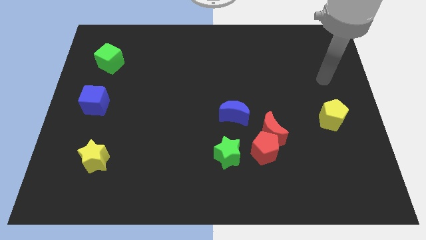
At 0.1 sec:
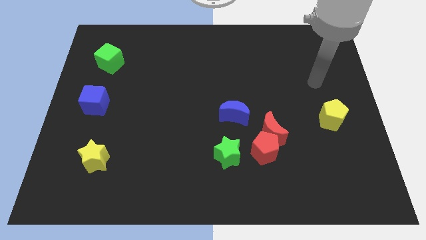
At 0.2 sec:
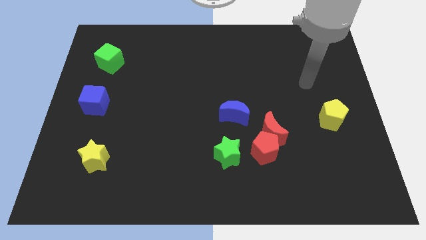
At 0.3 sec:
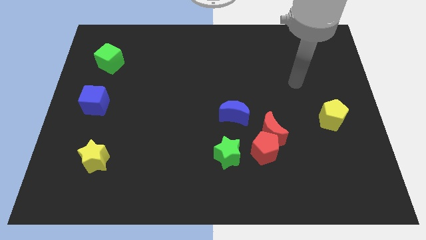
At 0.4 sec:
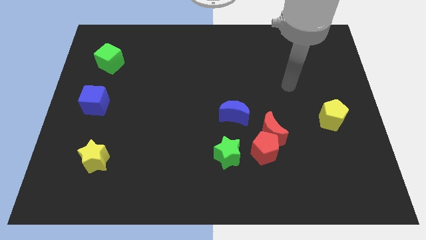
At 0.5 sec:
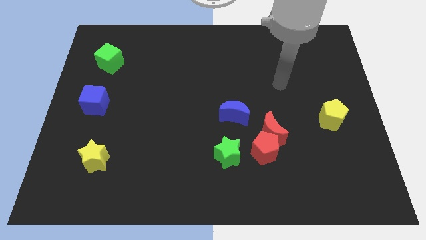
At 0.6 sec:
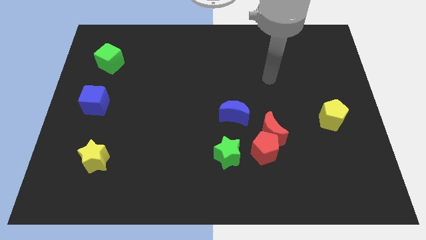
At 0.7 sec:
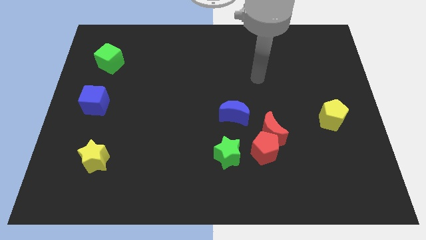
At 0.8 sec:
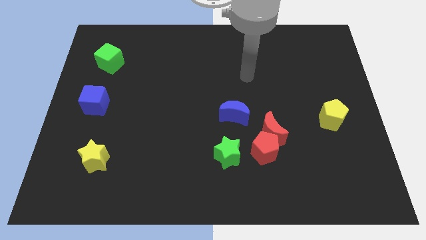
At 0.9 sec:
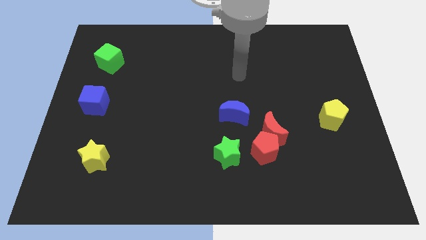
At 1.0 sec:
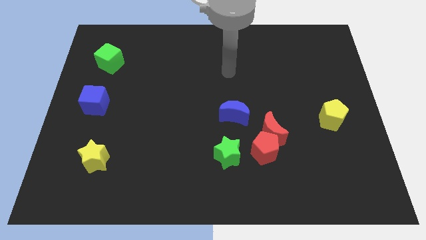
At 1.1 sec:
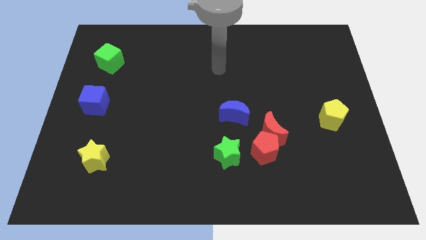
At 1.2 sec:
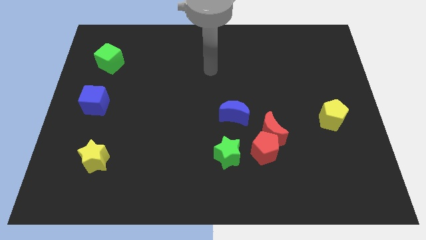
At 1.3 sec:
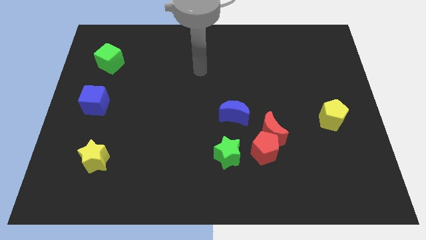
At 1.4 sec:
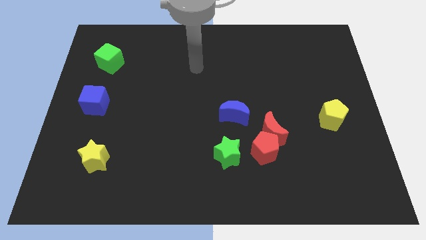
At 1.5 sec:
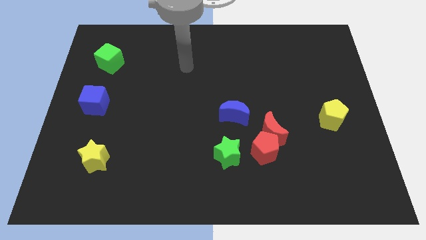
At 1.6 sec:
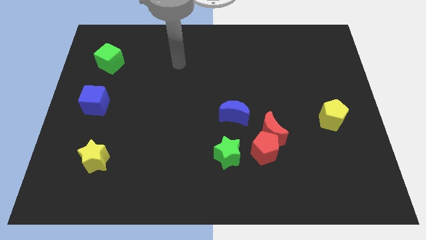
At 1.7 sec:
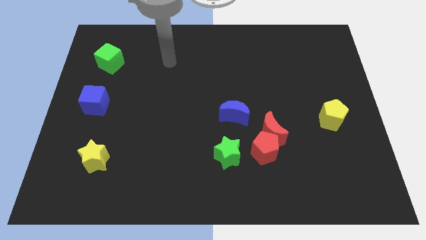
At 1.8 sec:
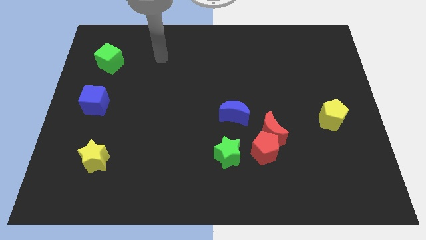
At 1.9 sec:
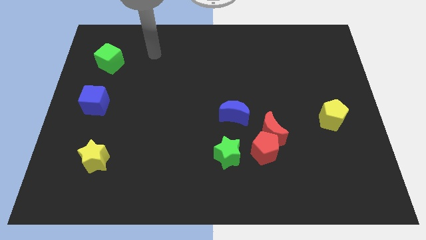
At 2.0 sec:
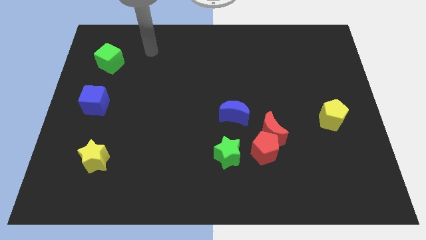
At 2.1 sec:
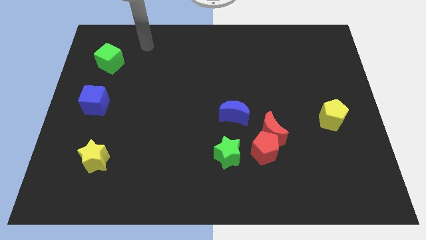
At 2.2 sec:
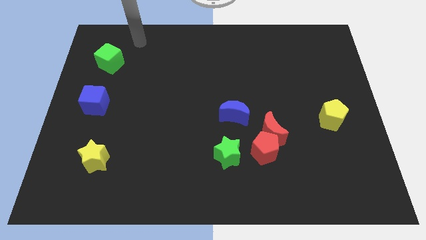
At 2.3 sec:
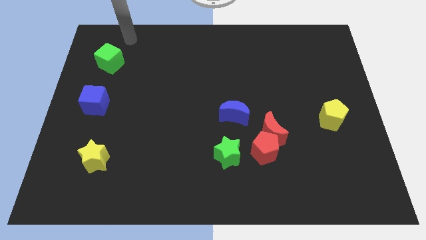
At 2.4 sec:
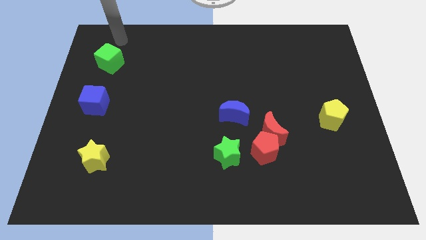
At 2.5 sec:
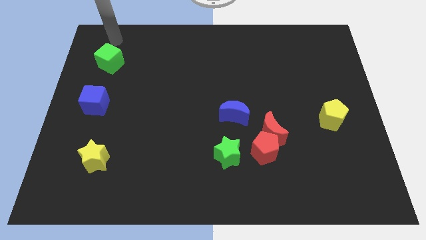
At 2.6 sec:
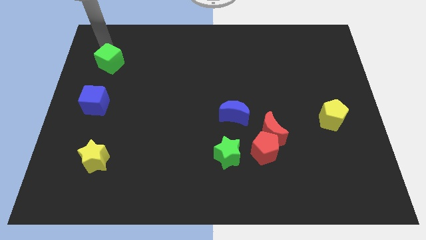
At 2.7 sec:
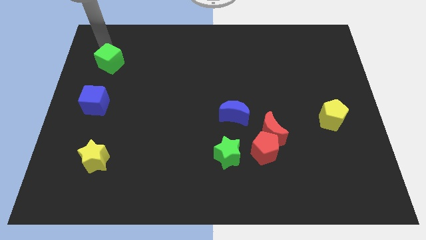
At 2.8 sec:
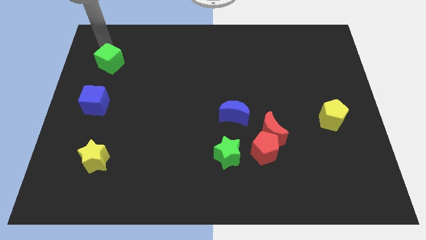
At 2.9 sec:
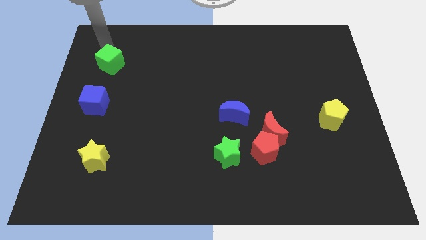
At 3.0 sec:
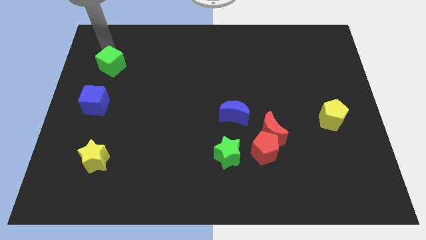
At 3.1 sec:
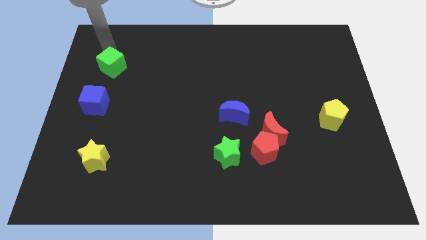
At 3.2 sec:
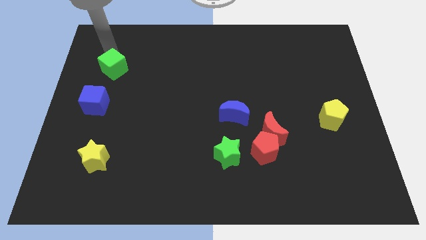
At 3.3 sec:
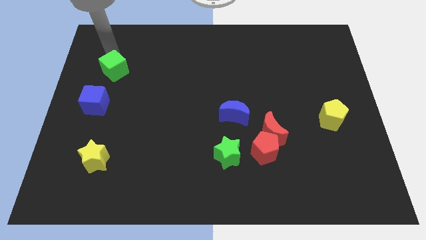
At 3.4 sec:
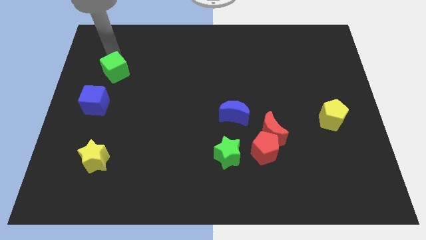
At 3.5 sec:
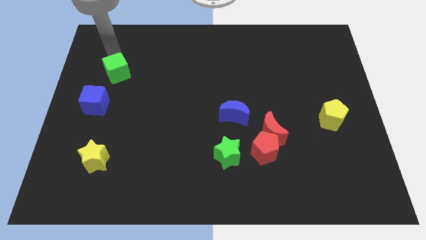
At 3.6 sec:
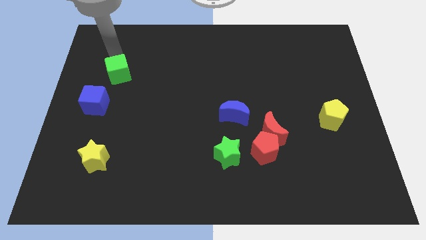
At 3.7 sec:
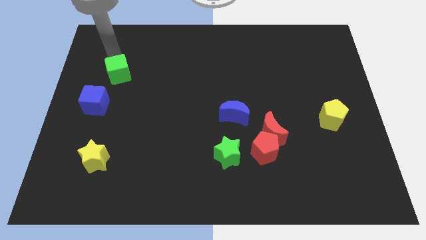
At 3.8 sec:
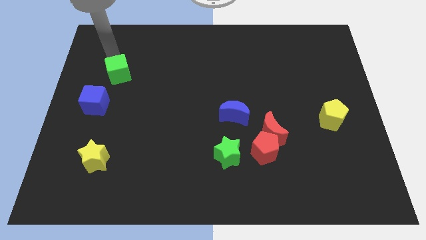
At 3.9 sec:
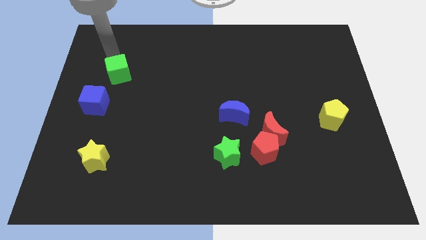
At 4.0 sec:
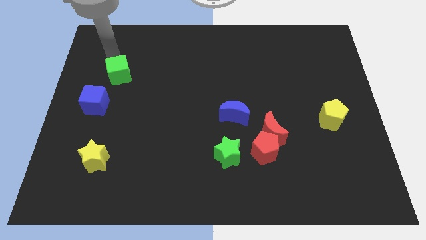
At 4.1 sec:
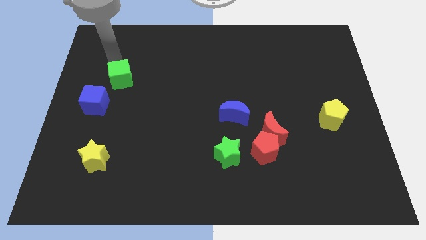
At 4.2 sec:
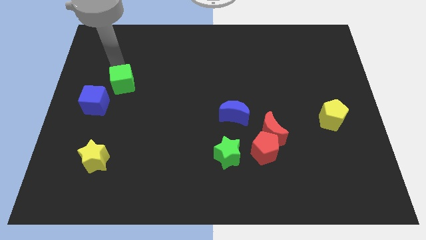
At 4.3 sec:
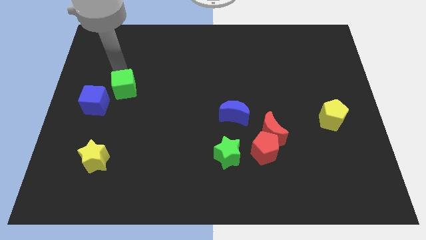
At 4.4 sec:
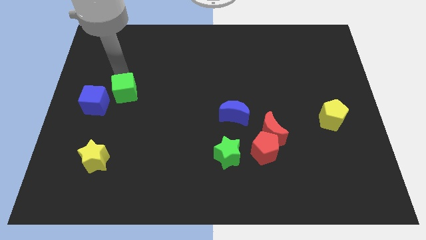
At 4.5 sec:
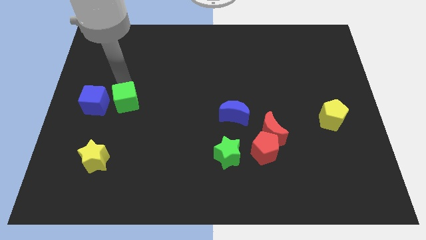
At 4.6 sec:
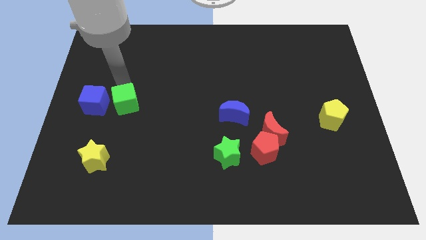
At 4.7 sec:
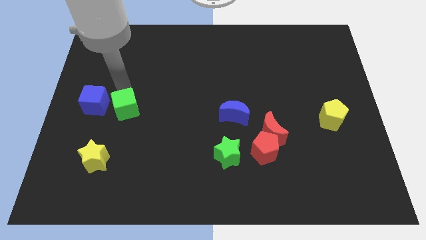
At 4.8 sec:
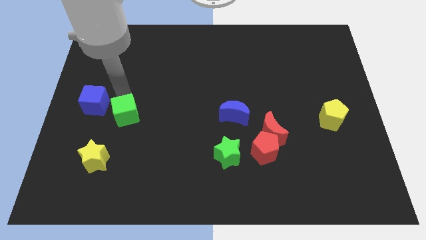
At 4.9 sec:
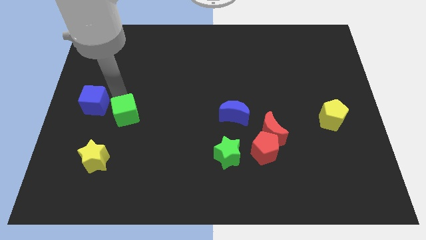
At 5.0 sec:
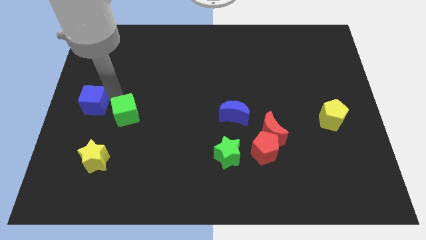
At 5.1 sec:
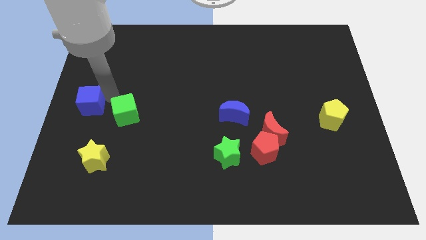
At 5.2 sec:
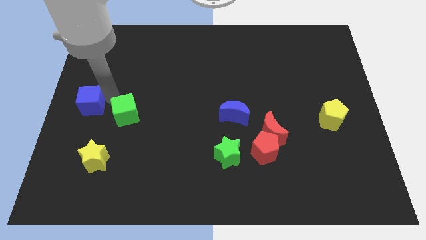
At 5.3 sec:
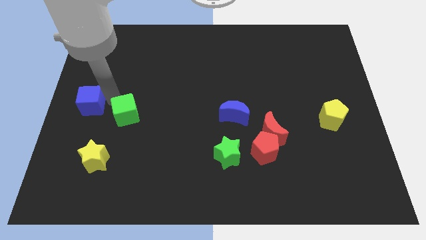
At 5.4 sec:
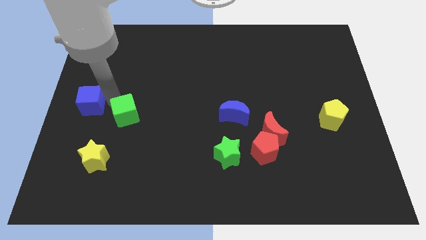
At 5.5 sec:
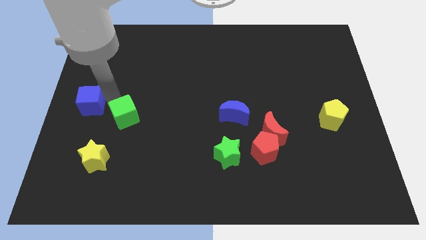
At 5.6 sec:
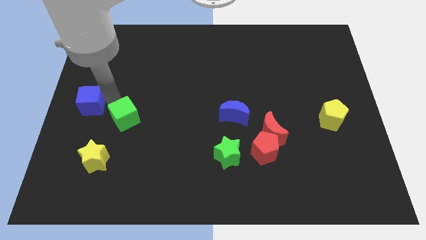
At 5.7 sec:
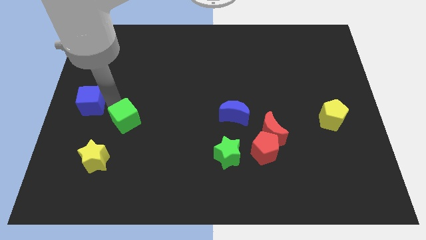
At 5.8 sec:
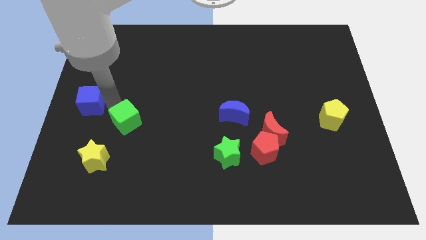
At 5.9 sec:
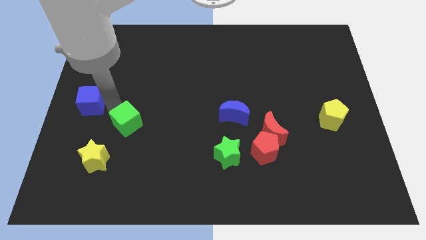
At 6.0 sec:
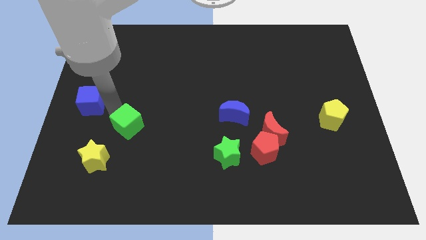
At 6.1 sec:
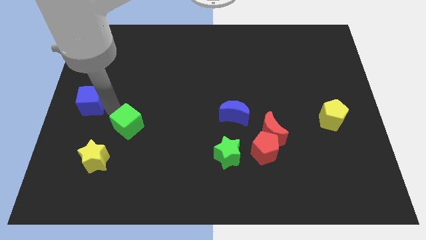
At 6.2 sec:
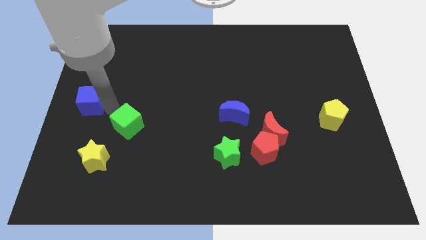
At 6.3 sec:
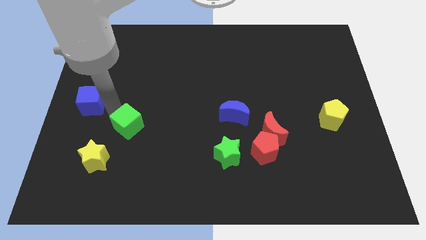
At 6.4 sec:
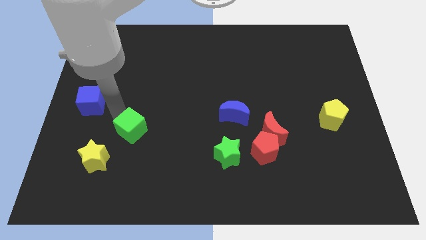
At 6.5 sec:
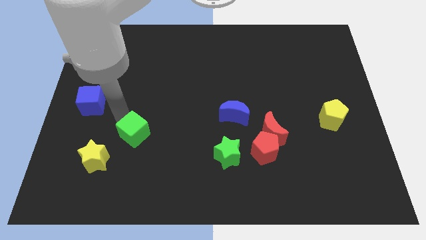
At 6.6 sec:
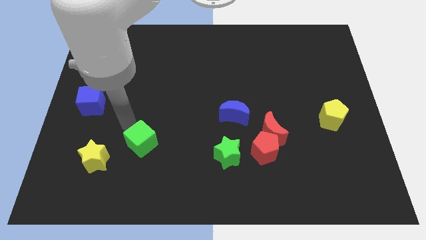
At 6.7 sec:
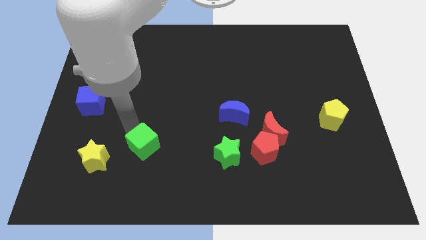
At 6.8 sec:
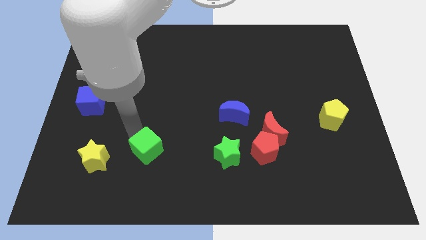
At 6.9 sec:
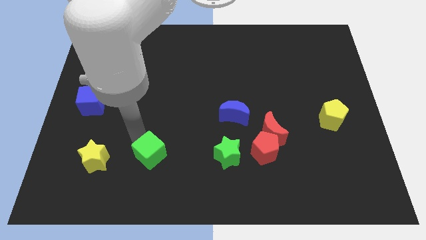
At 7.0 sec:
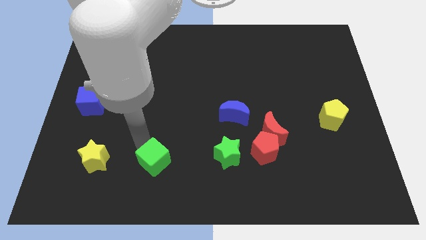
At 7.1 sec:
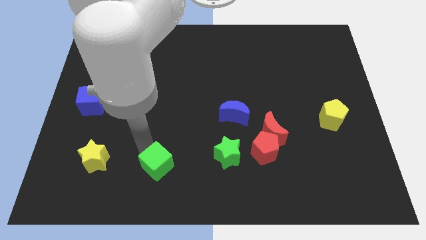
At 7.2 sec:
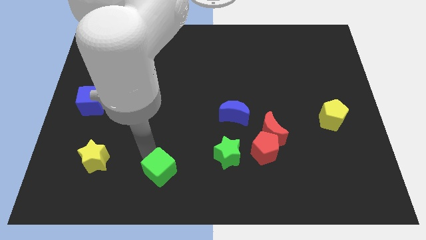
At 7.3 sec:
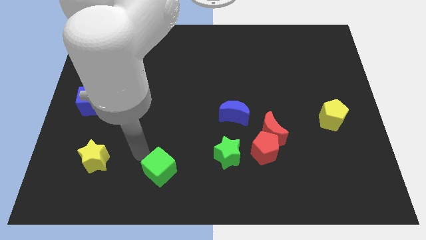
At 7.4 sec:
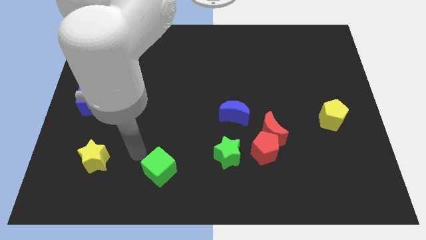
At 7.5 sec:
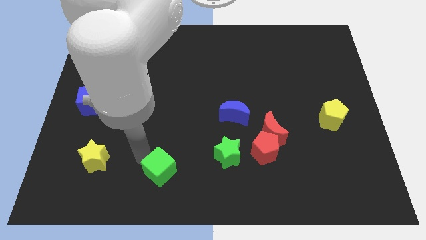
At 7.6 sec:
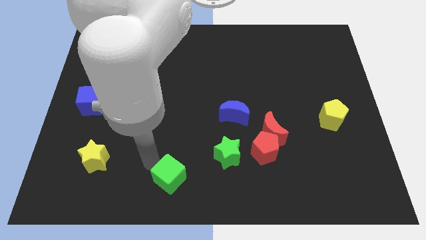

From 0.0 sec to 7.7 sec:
put the green cube to the bottom side
